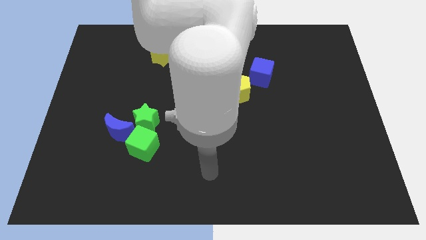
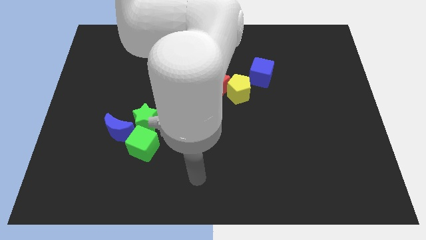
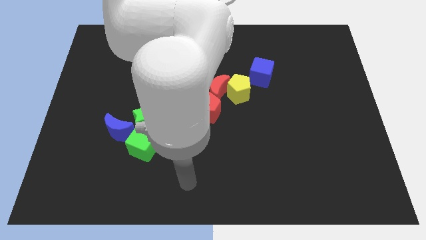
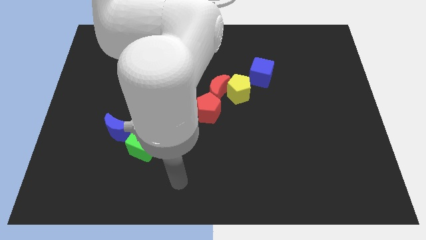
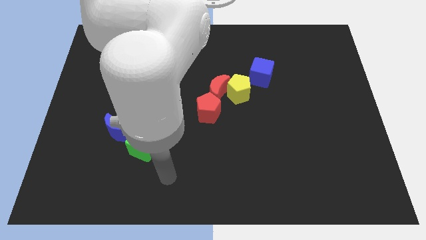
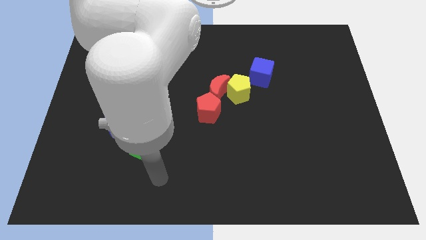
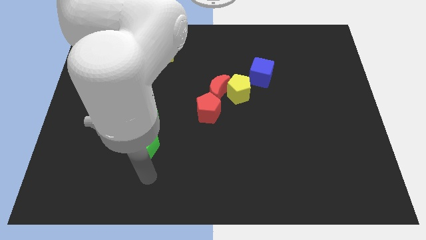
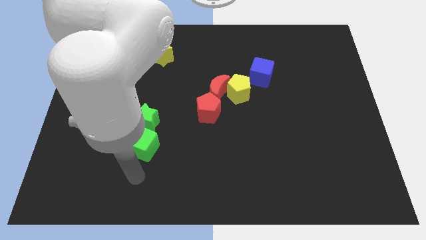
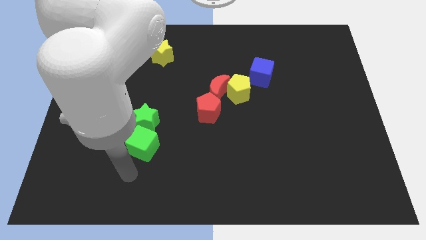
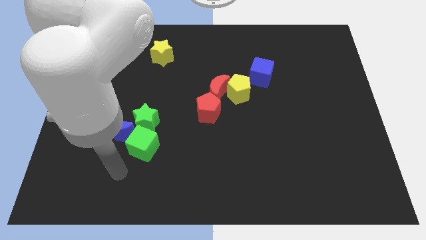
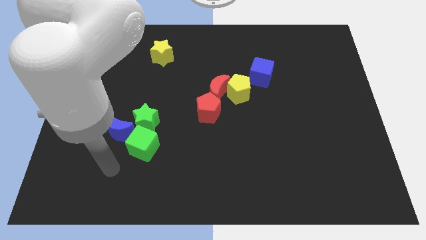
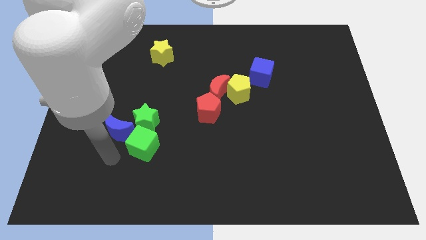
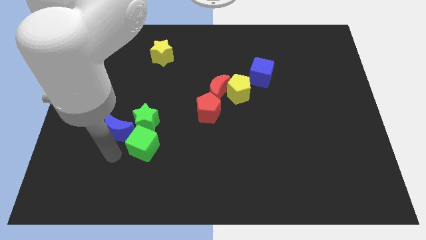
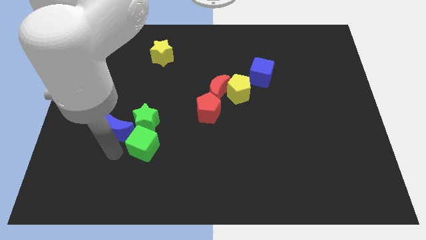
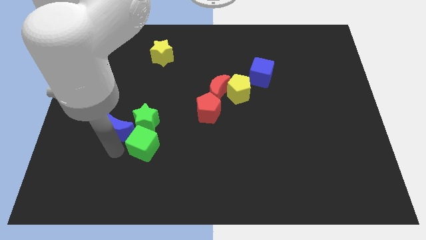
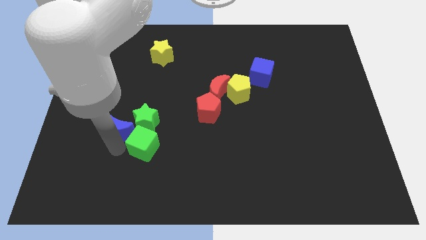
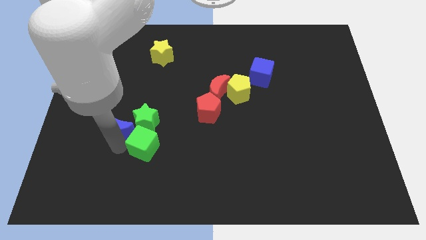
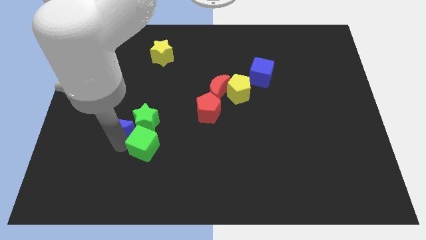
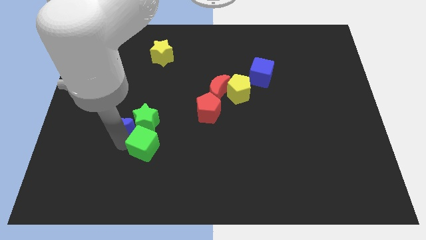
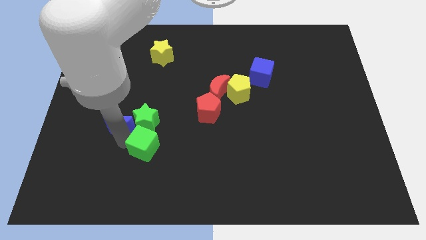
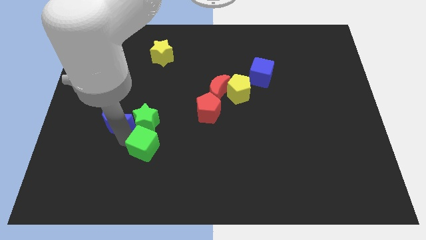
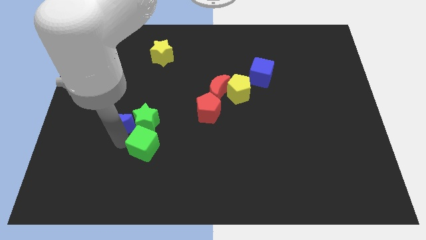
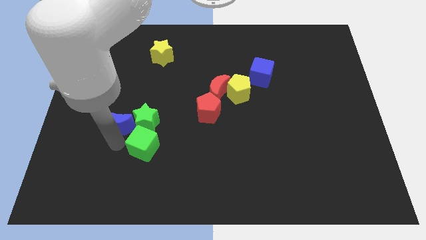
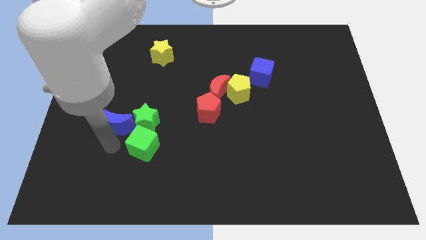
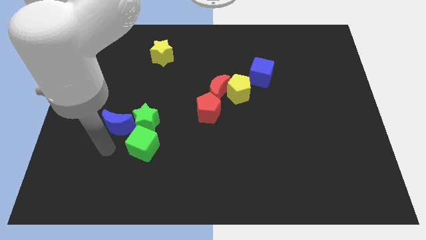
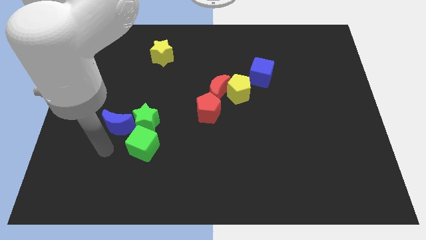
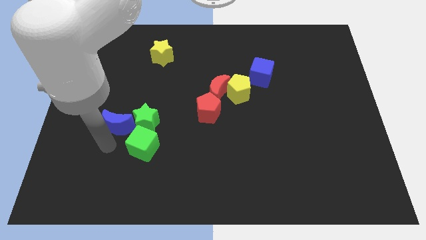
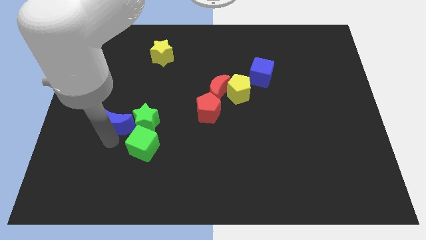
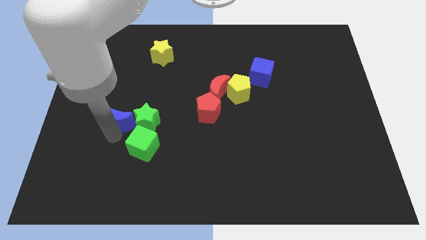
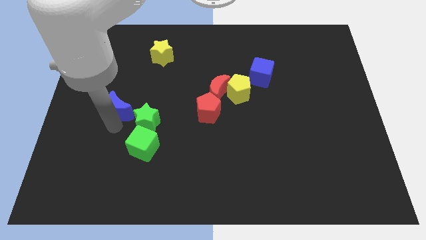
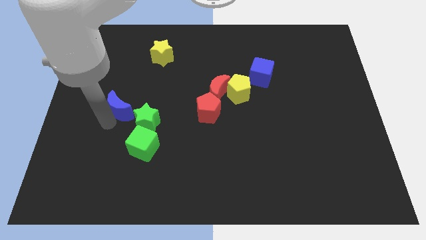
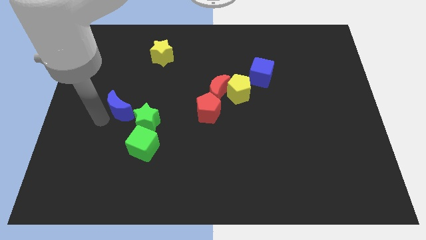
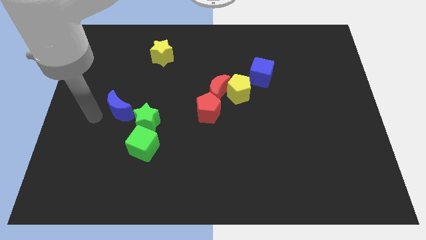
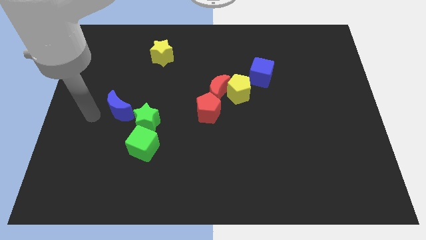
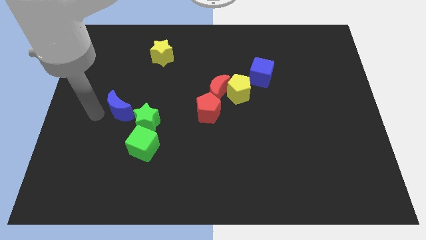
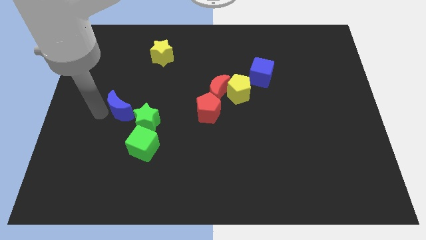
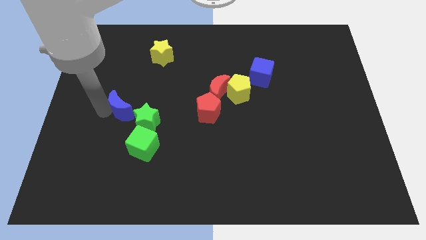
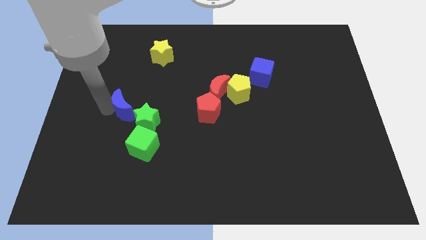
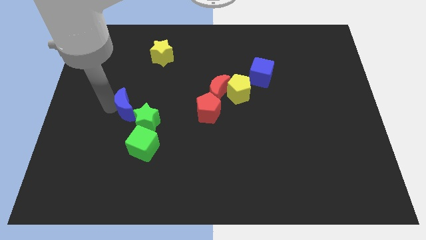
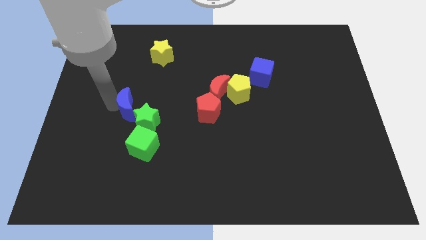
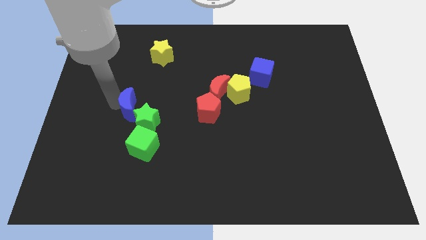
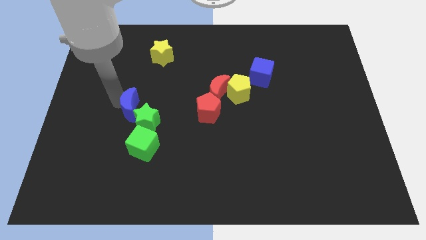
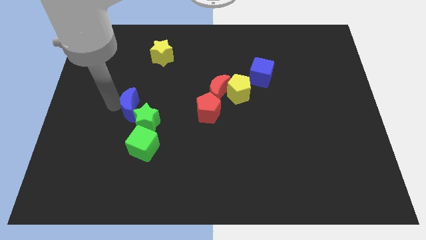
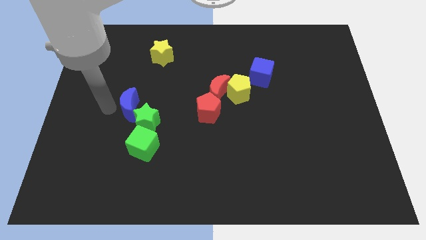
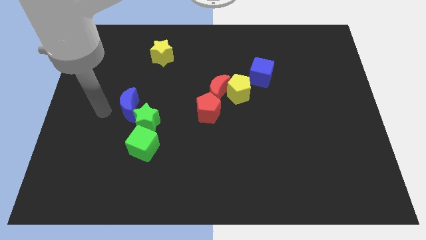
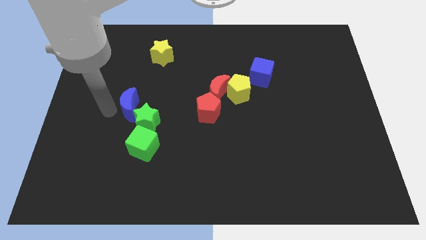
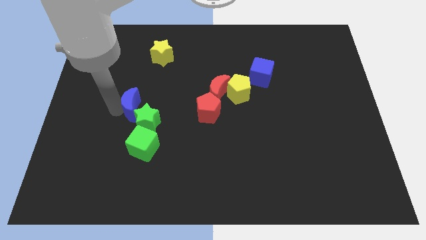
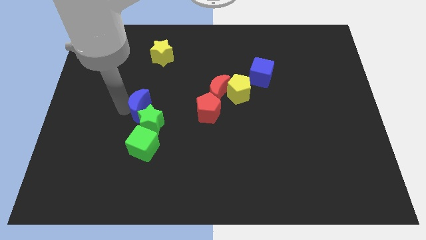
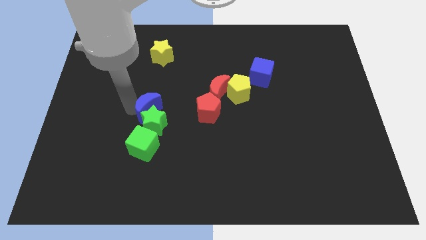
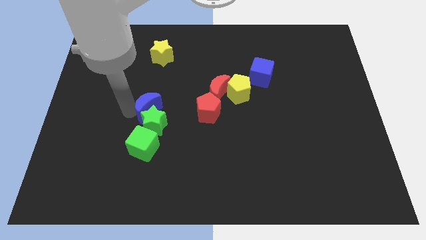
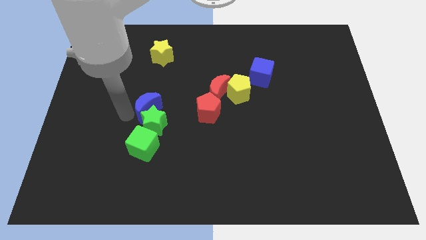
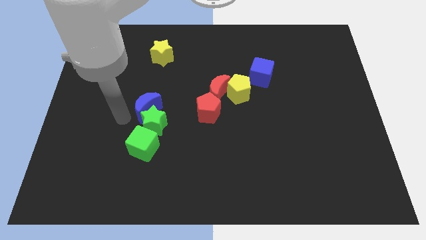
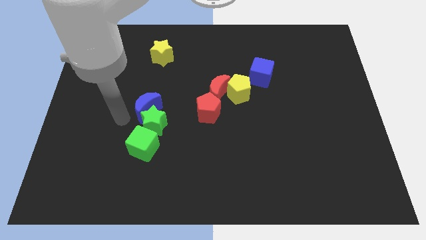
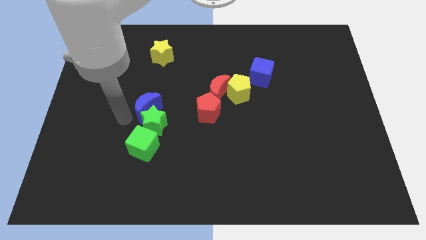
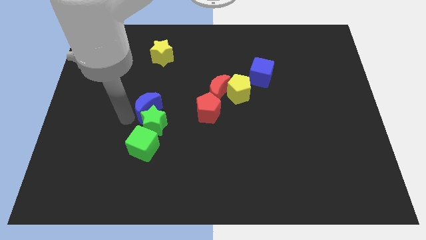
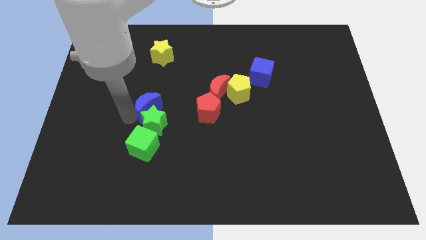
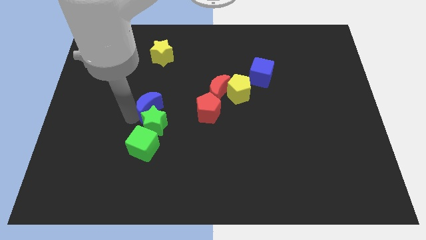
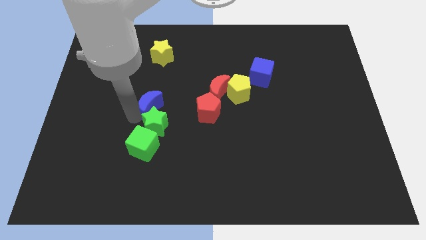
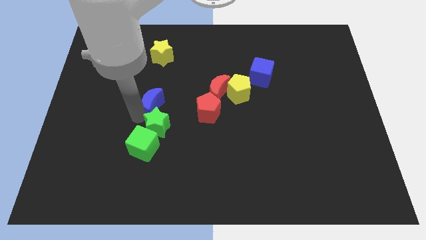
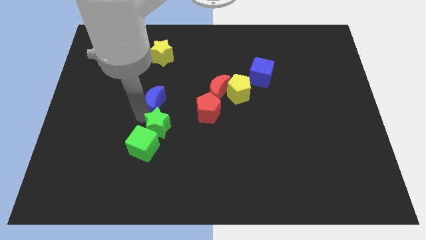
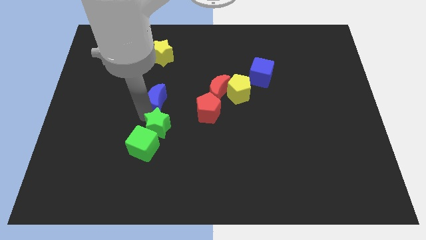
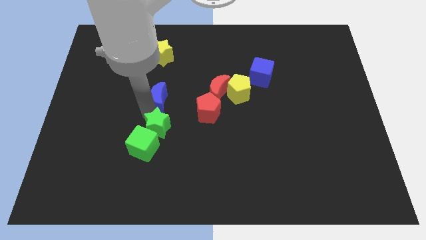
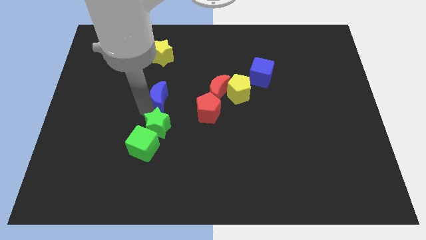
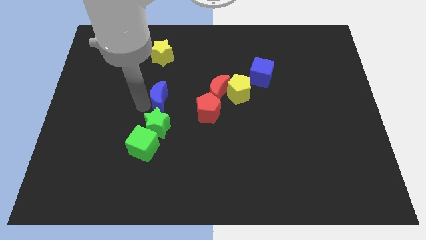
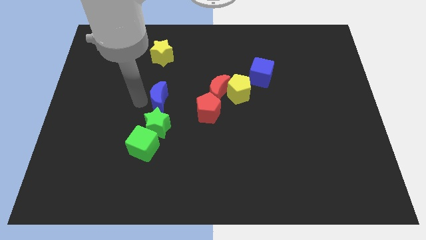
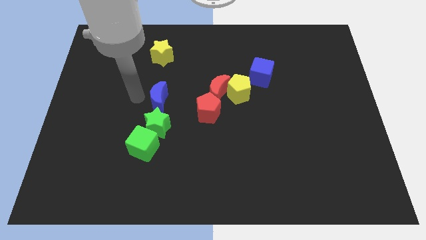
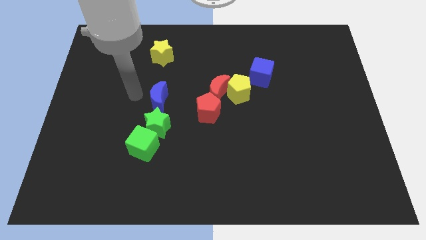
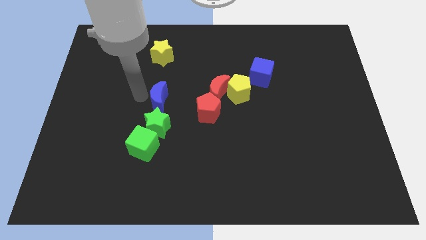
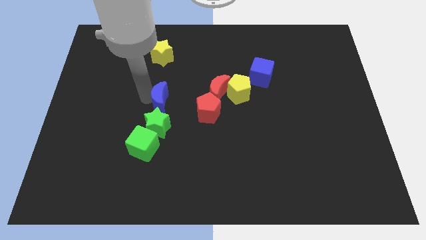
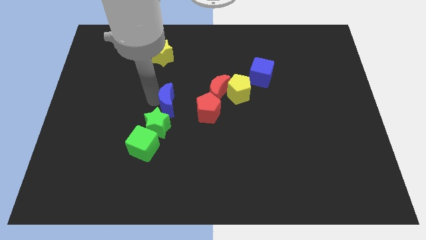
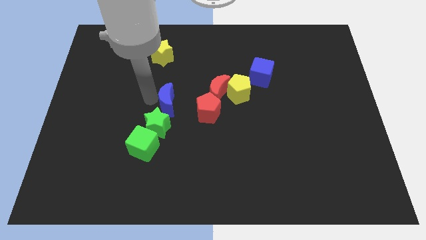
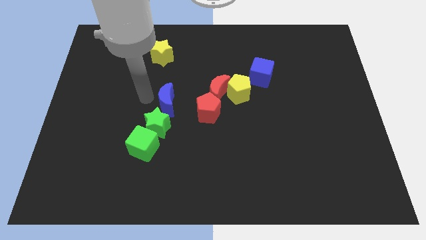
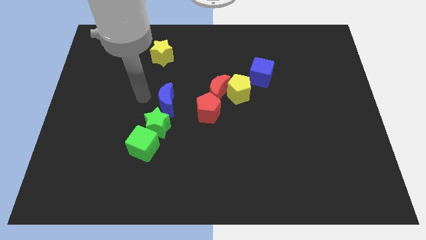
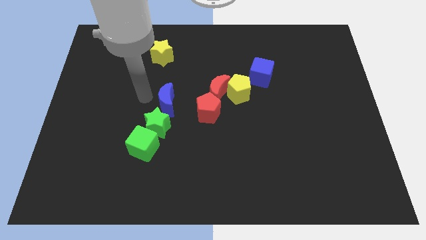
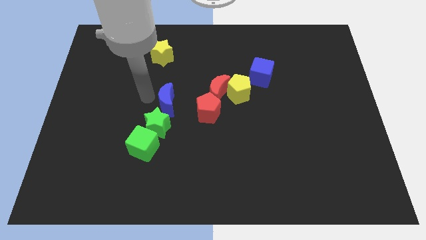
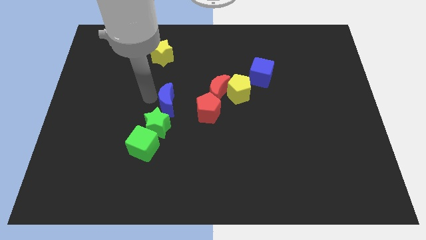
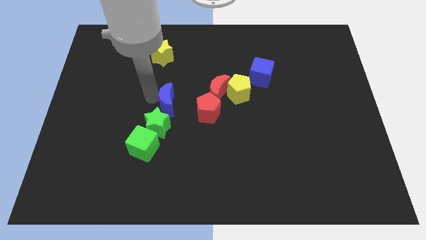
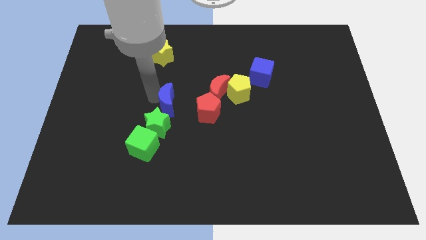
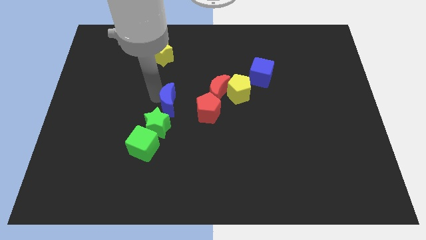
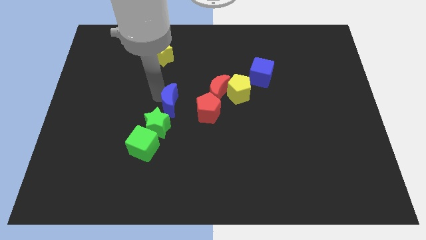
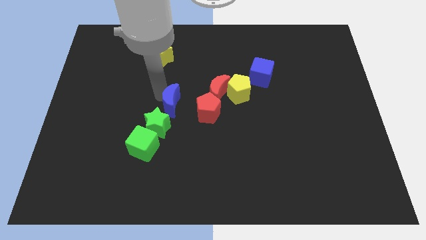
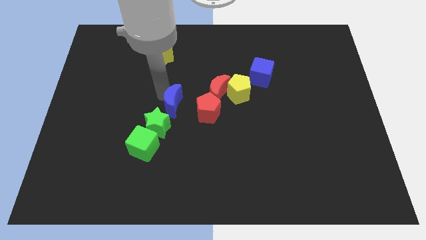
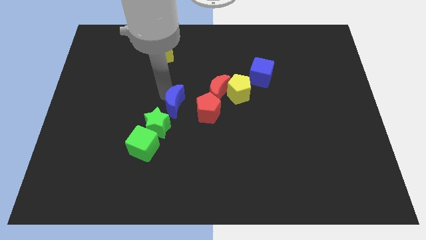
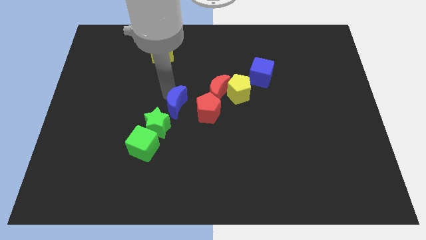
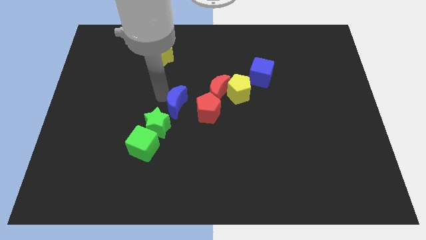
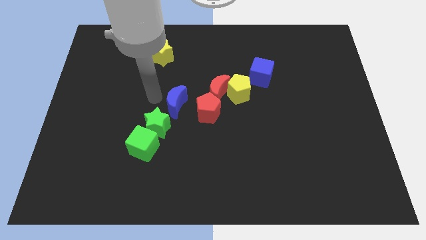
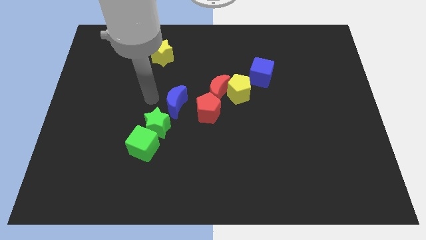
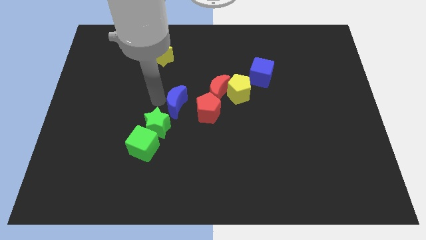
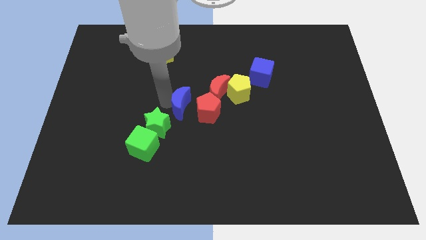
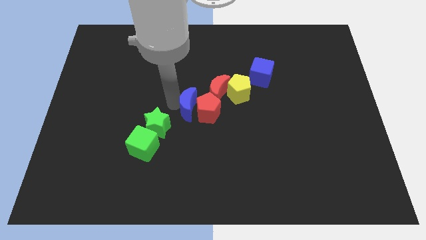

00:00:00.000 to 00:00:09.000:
put the blue moon close to the red pentagon
